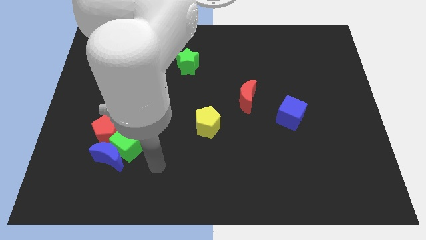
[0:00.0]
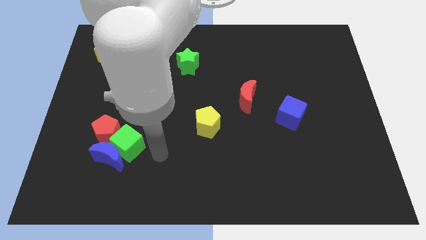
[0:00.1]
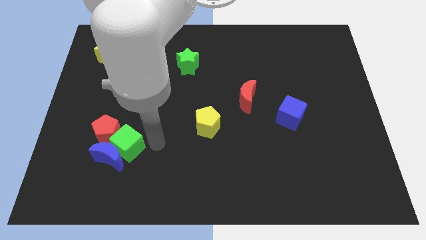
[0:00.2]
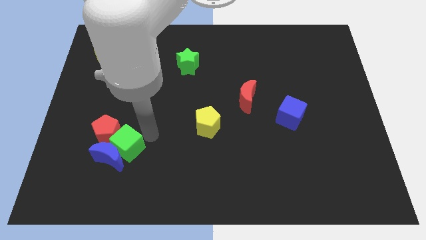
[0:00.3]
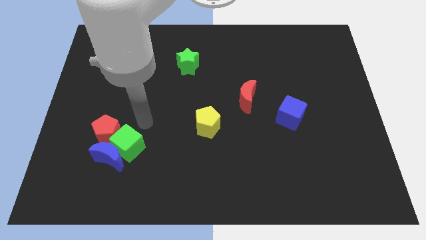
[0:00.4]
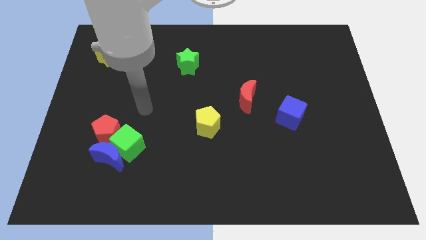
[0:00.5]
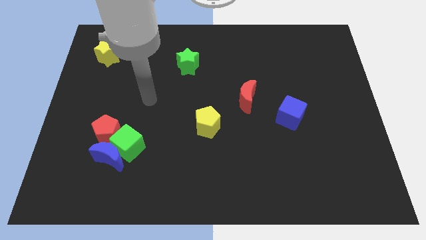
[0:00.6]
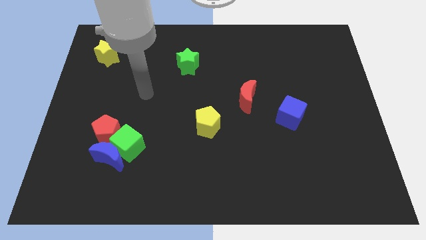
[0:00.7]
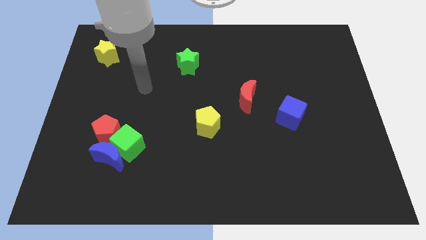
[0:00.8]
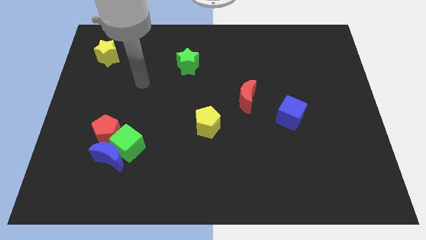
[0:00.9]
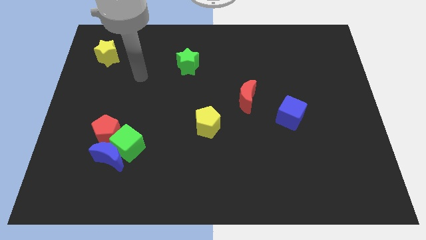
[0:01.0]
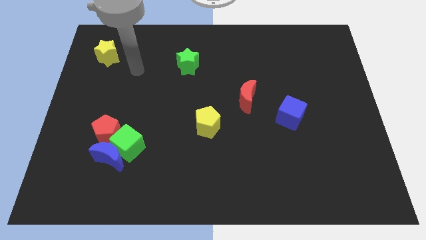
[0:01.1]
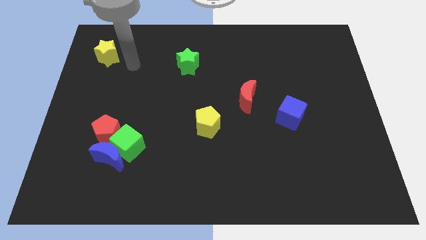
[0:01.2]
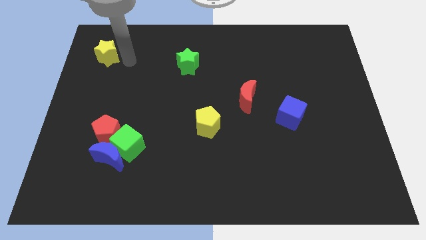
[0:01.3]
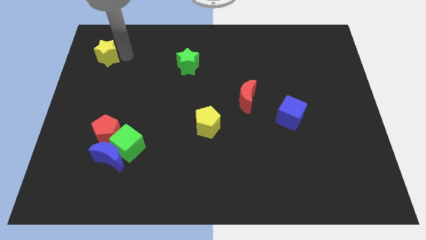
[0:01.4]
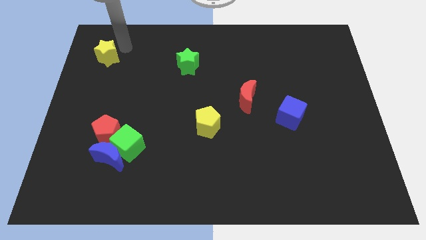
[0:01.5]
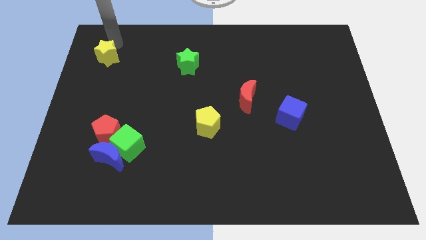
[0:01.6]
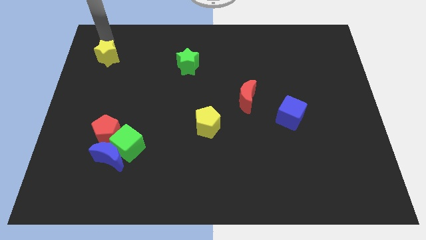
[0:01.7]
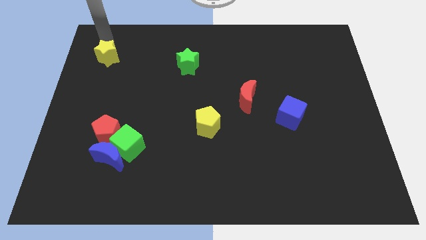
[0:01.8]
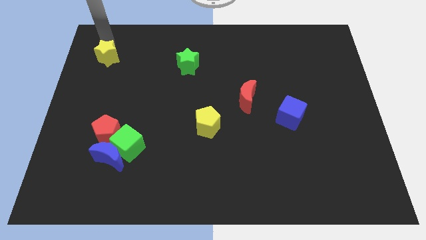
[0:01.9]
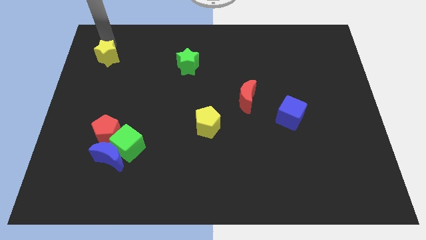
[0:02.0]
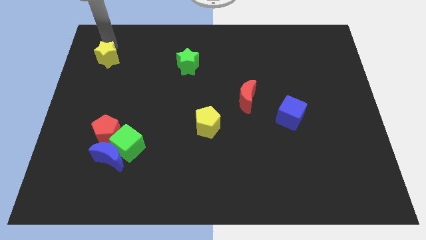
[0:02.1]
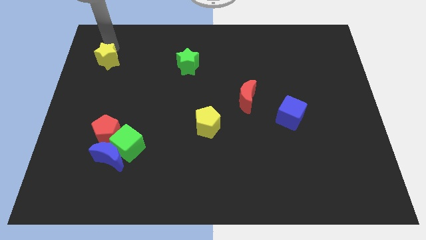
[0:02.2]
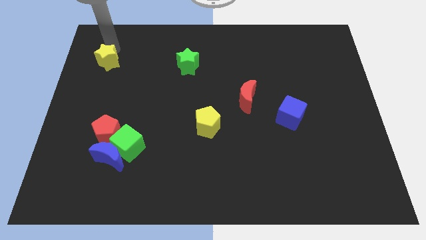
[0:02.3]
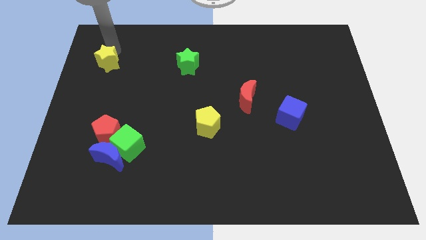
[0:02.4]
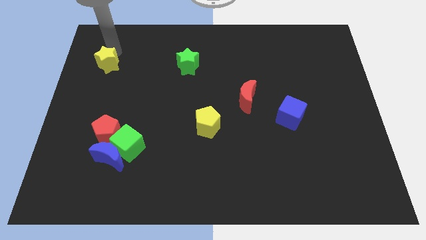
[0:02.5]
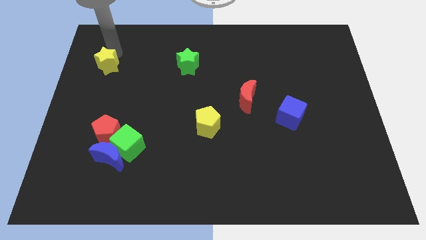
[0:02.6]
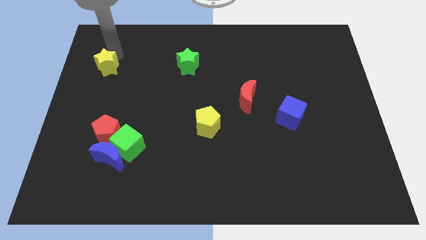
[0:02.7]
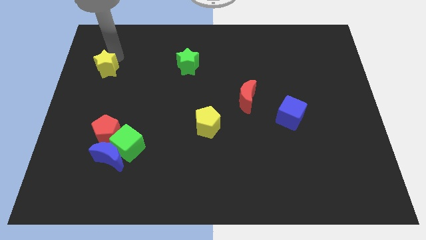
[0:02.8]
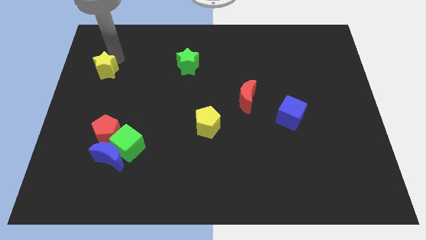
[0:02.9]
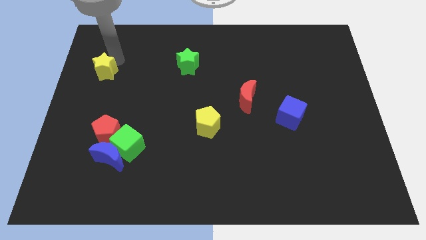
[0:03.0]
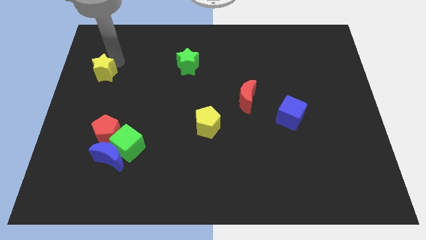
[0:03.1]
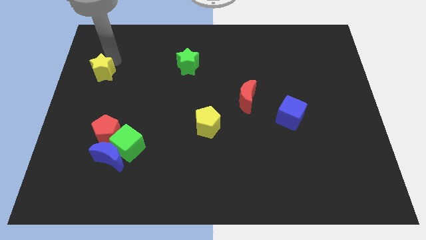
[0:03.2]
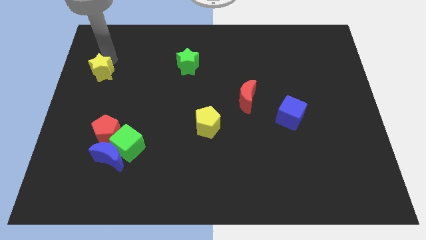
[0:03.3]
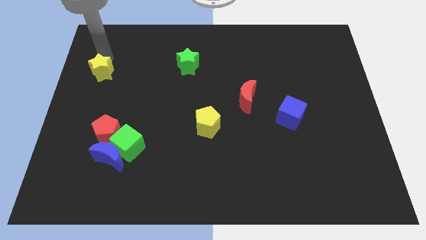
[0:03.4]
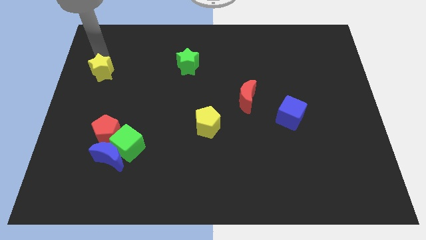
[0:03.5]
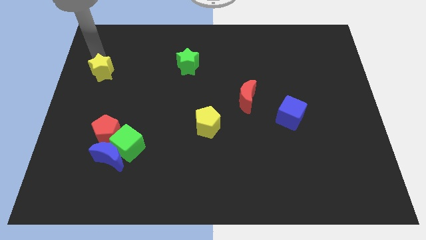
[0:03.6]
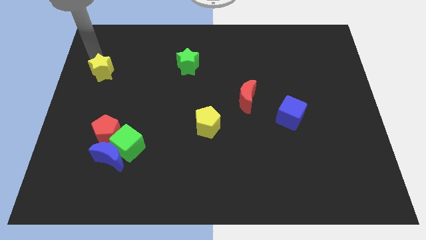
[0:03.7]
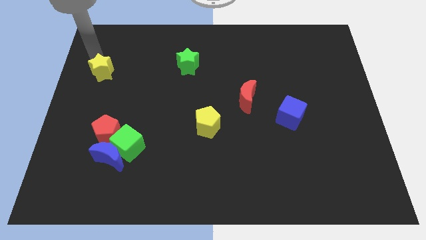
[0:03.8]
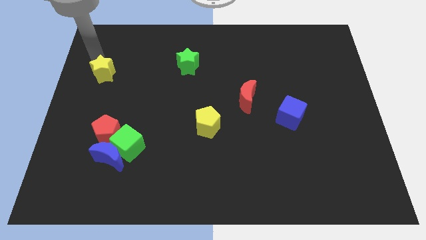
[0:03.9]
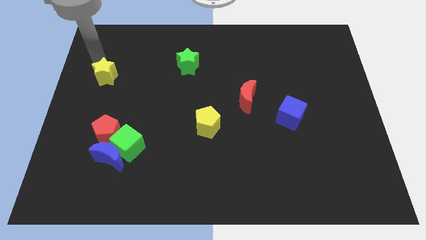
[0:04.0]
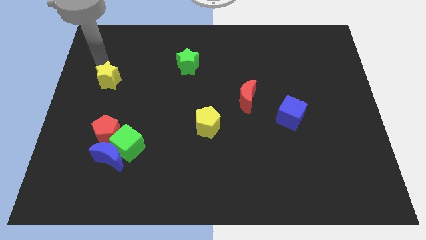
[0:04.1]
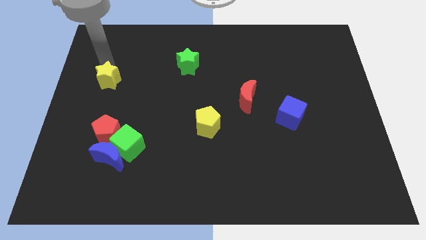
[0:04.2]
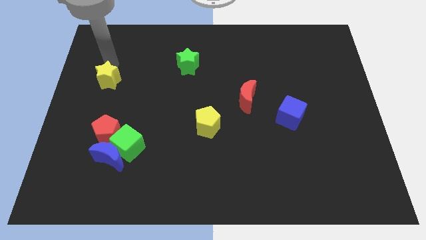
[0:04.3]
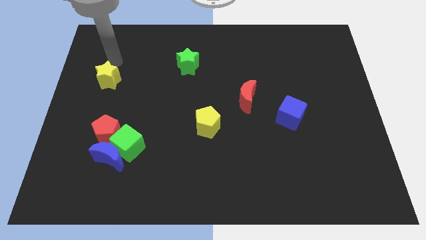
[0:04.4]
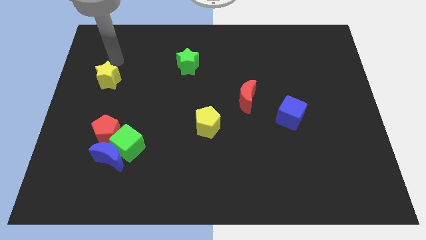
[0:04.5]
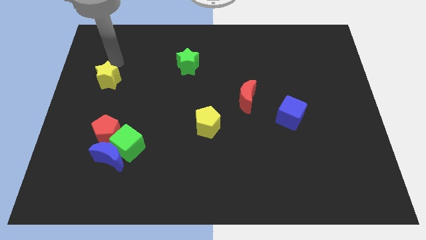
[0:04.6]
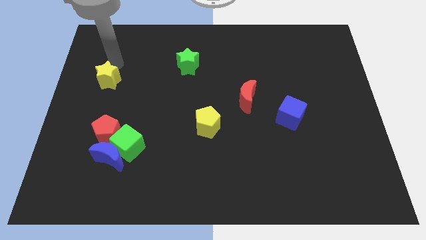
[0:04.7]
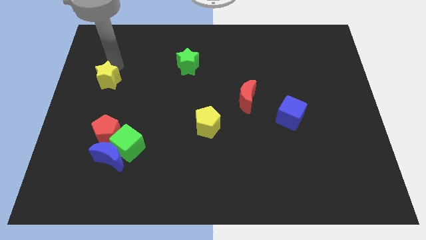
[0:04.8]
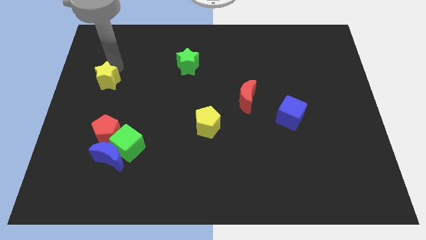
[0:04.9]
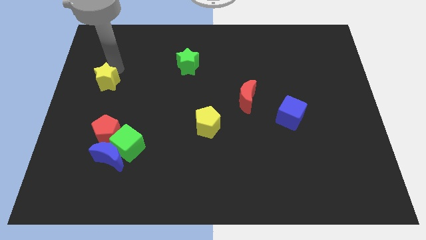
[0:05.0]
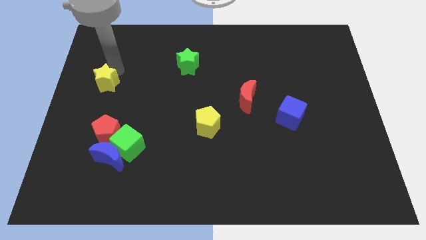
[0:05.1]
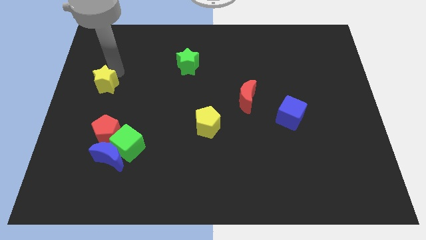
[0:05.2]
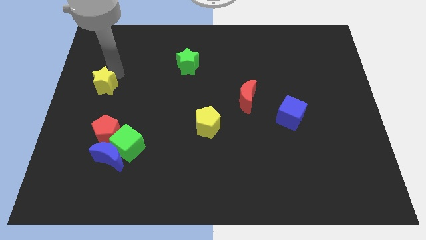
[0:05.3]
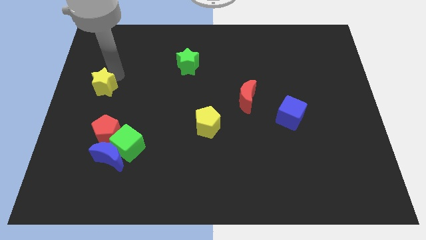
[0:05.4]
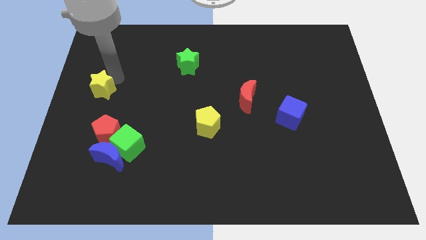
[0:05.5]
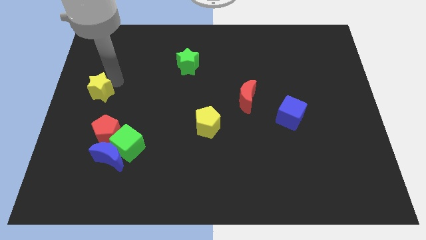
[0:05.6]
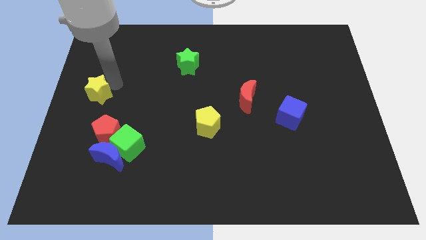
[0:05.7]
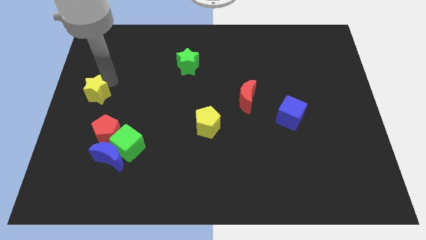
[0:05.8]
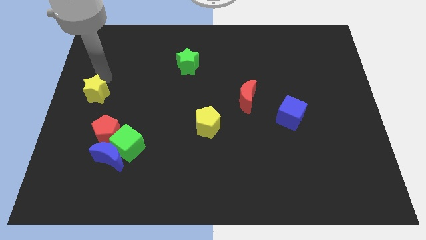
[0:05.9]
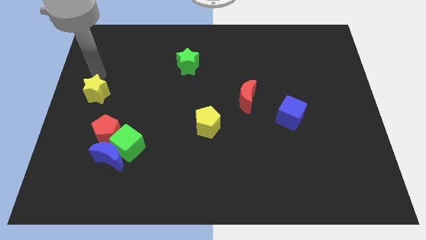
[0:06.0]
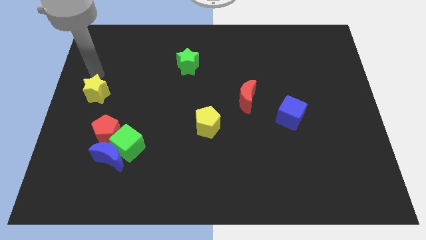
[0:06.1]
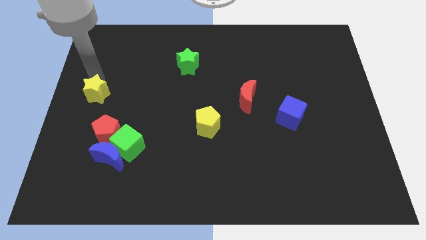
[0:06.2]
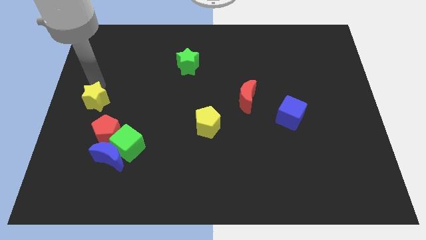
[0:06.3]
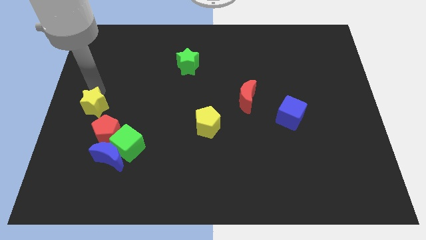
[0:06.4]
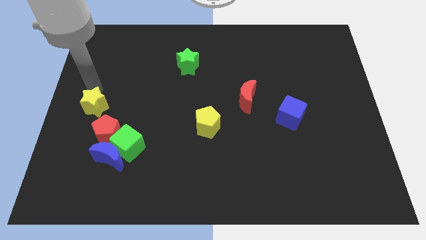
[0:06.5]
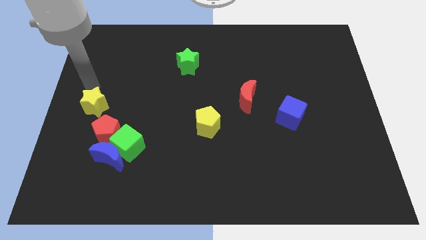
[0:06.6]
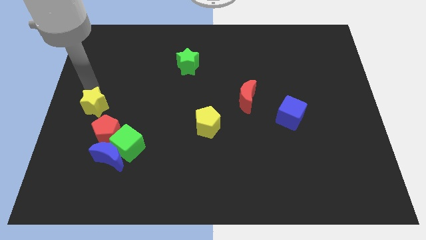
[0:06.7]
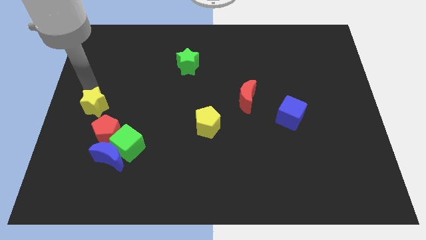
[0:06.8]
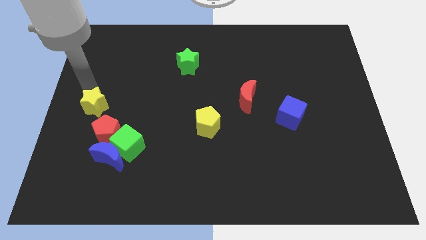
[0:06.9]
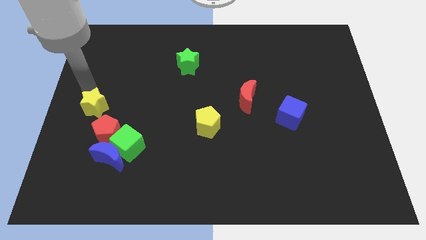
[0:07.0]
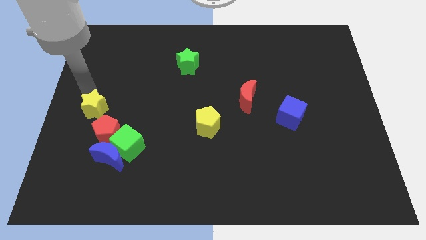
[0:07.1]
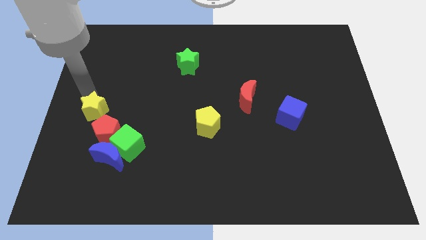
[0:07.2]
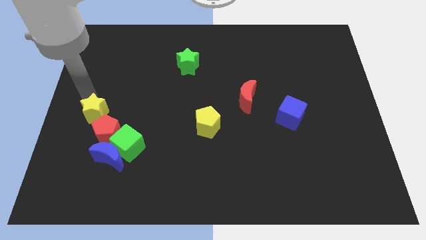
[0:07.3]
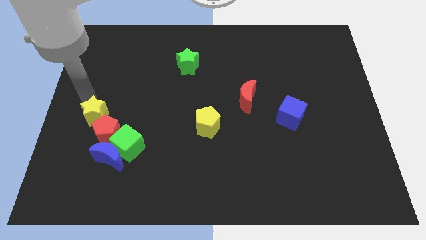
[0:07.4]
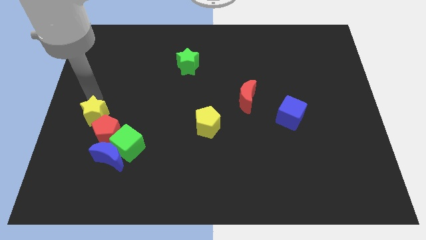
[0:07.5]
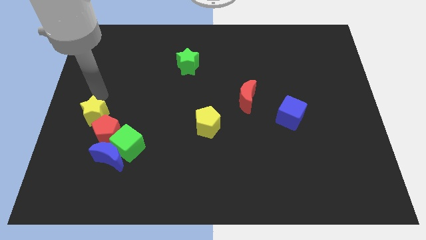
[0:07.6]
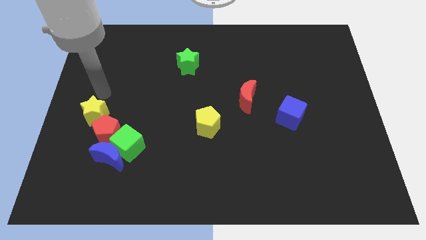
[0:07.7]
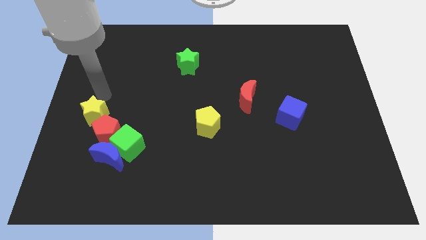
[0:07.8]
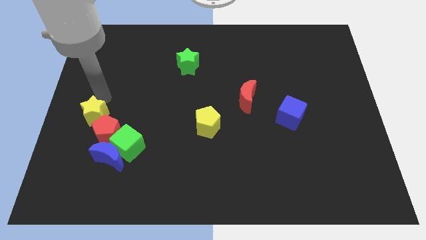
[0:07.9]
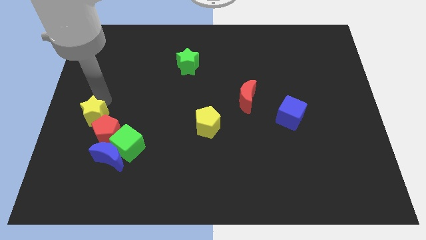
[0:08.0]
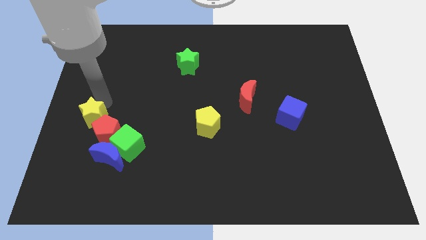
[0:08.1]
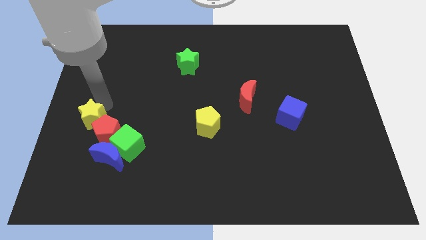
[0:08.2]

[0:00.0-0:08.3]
move the yellow star diagonally up and to the left of the blue moon
